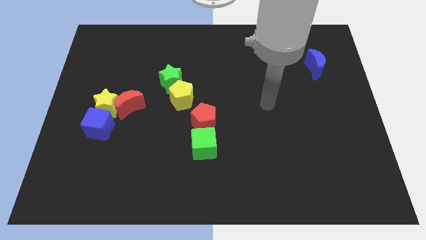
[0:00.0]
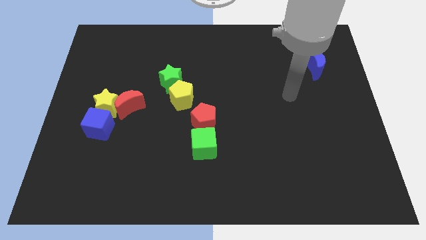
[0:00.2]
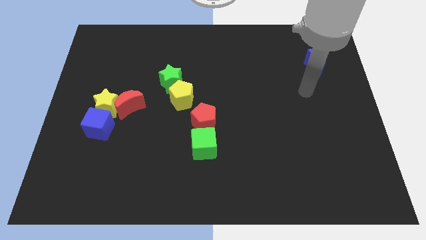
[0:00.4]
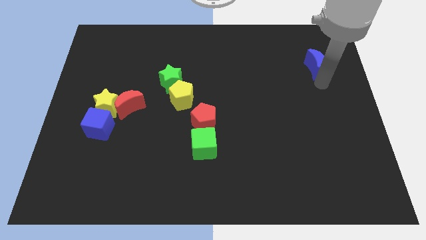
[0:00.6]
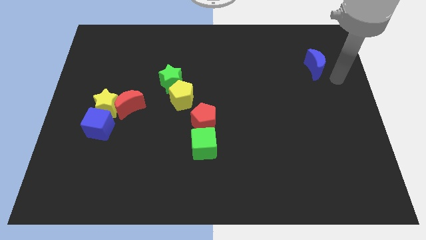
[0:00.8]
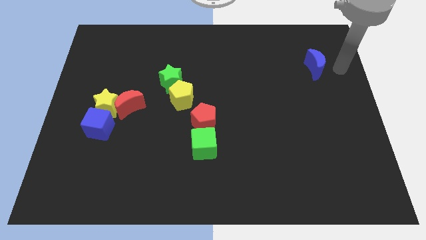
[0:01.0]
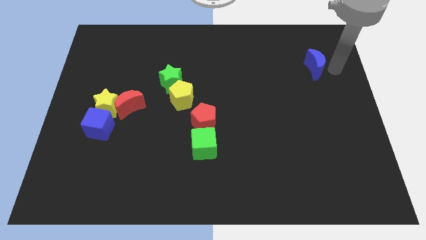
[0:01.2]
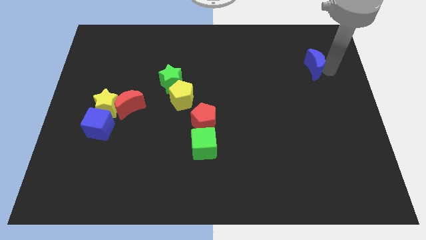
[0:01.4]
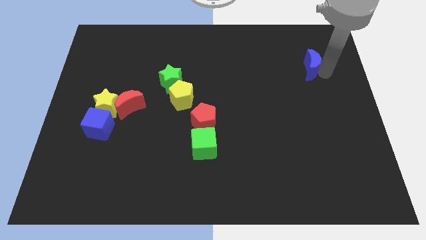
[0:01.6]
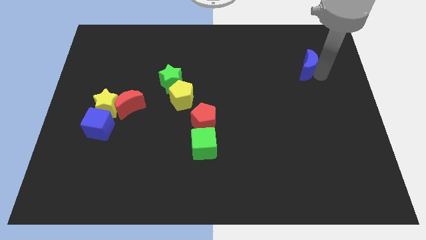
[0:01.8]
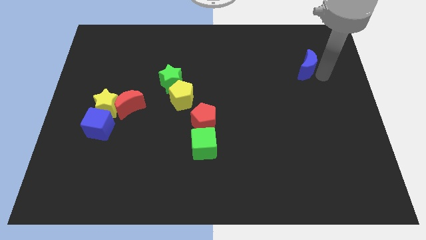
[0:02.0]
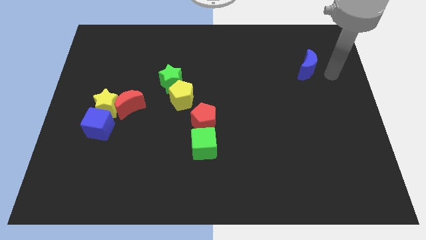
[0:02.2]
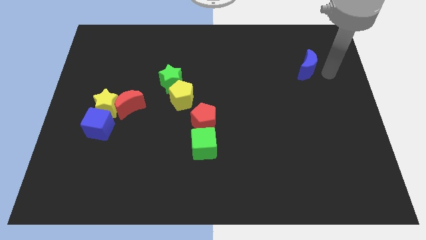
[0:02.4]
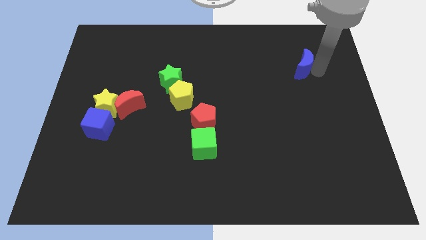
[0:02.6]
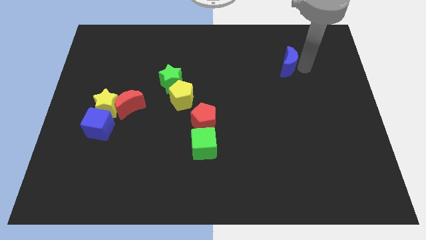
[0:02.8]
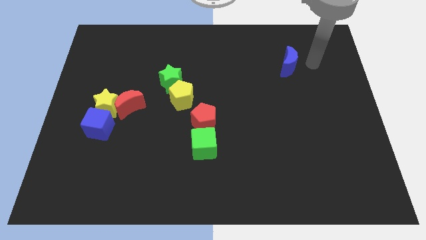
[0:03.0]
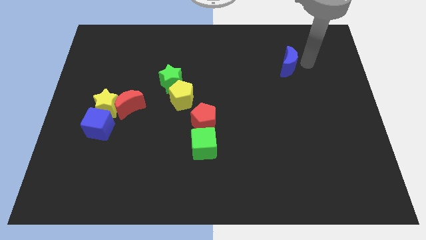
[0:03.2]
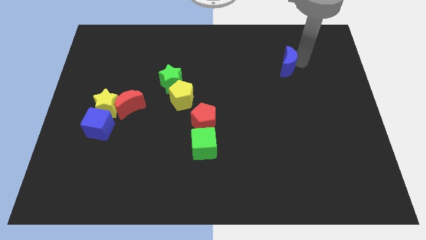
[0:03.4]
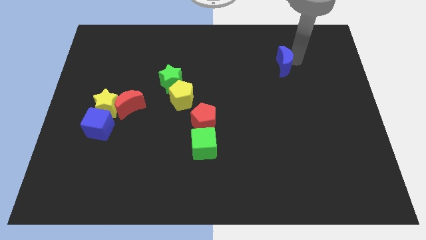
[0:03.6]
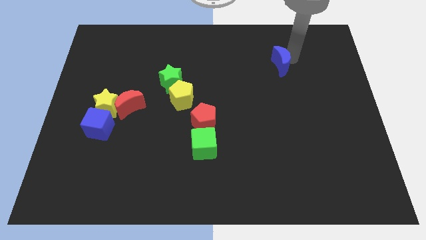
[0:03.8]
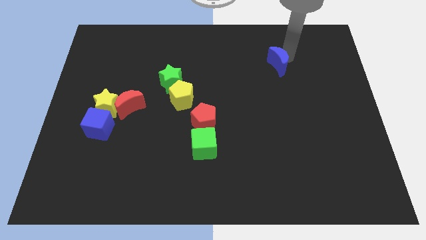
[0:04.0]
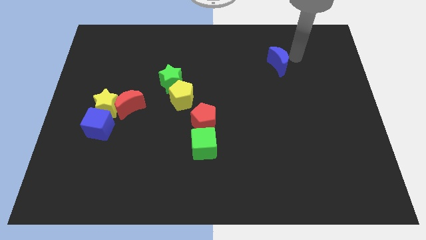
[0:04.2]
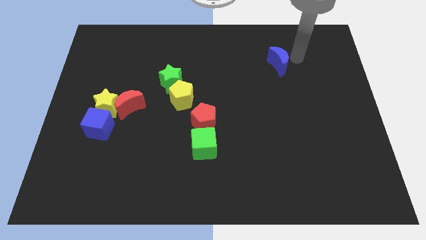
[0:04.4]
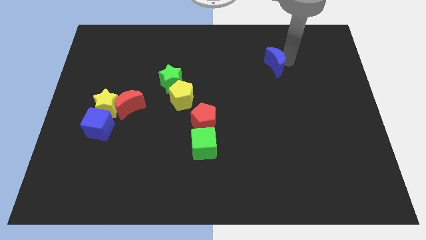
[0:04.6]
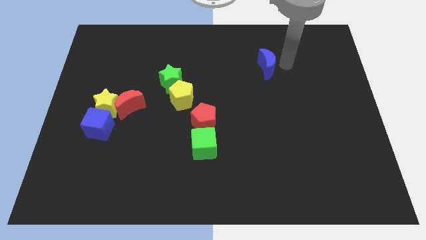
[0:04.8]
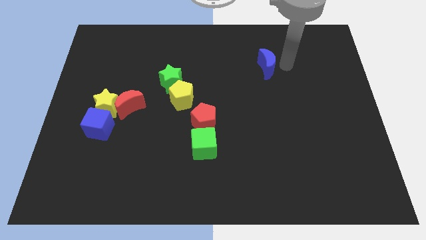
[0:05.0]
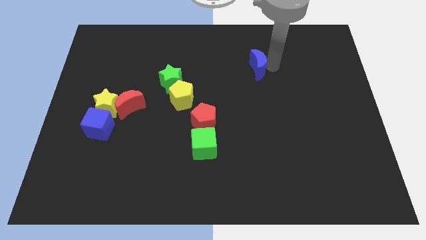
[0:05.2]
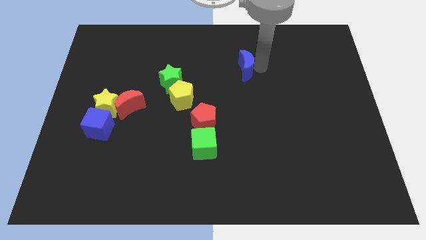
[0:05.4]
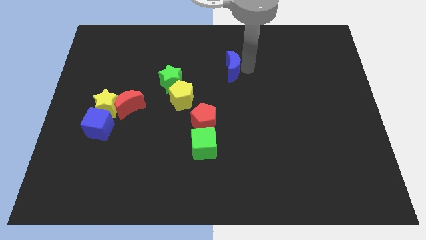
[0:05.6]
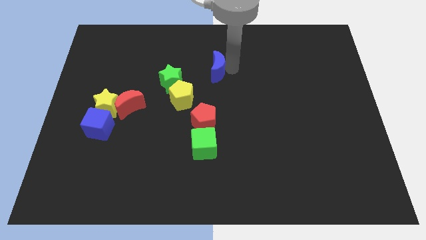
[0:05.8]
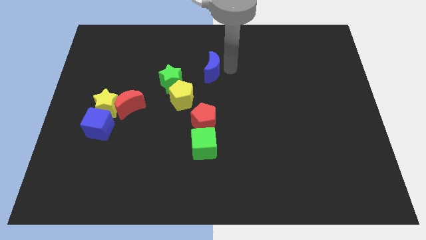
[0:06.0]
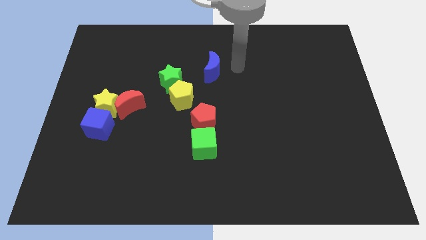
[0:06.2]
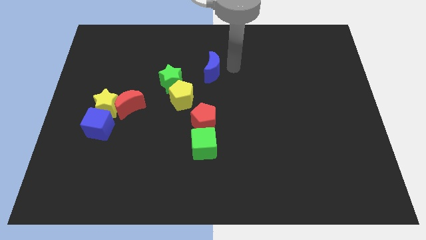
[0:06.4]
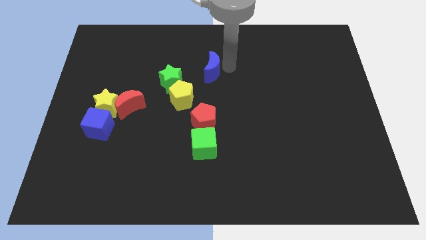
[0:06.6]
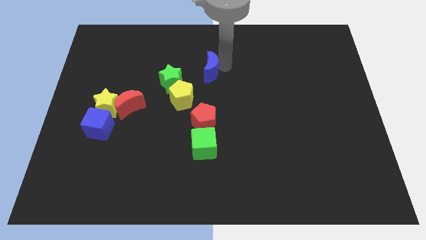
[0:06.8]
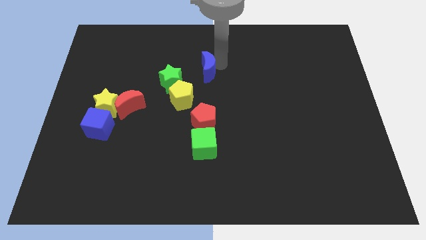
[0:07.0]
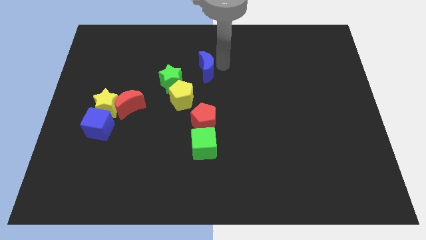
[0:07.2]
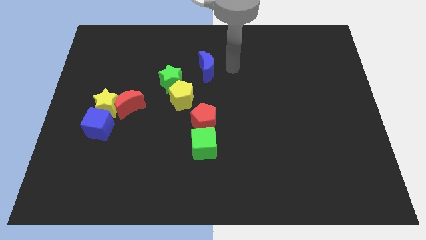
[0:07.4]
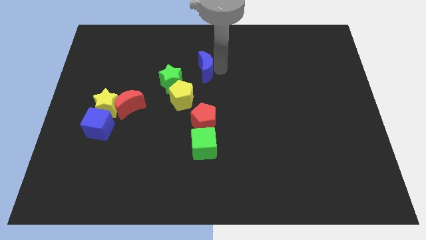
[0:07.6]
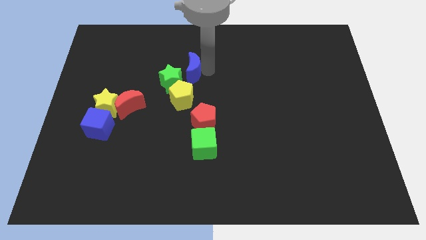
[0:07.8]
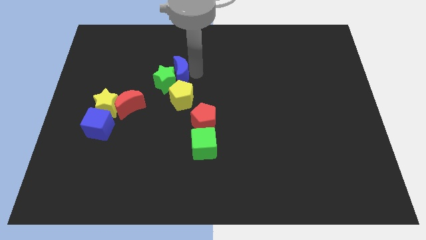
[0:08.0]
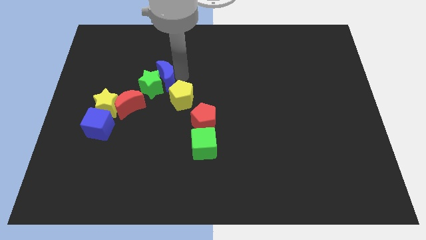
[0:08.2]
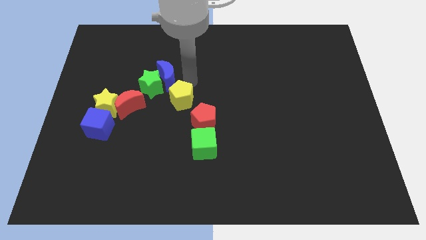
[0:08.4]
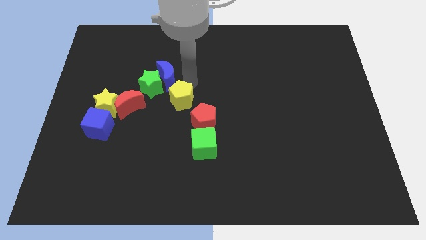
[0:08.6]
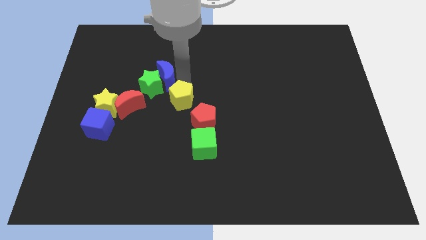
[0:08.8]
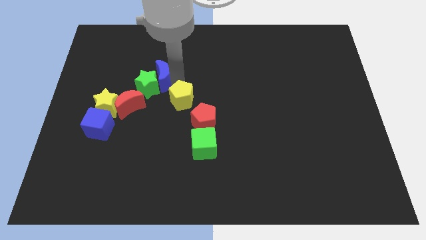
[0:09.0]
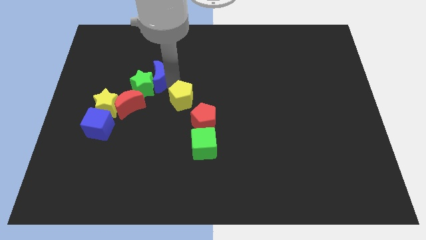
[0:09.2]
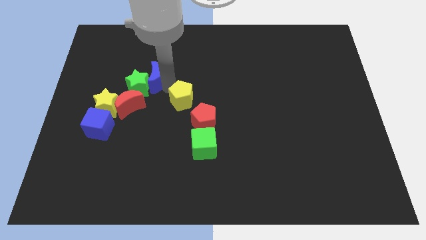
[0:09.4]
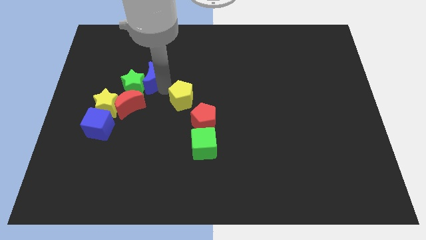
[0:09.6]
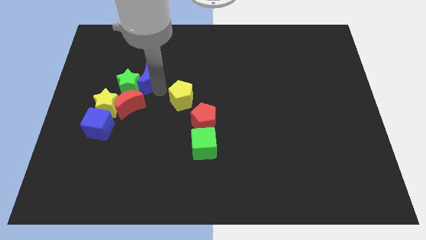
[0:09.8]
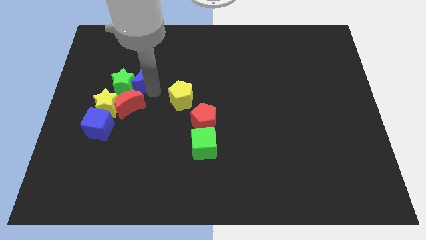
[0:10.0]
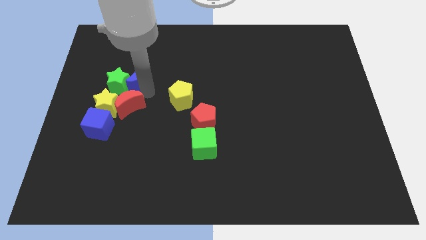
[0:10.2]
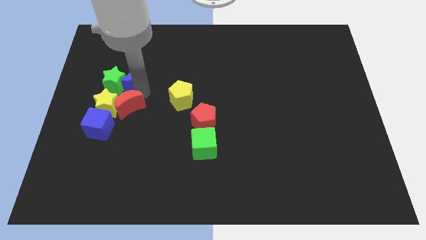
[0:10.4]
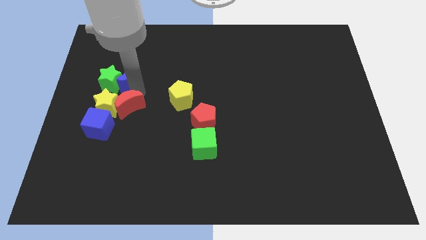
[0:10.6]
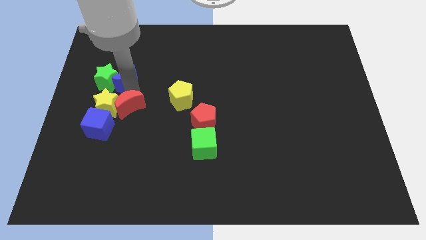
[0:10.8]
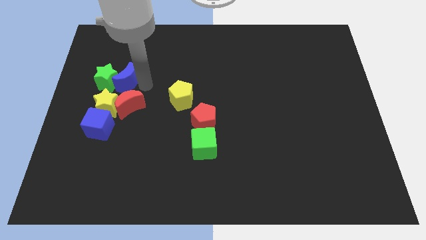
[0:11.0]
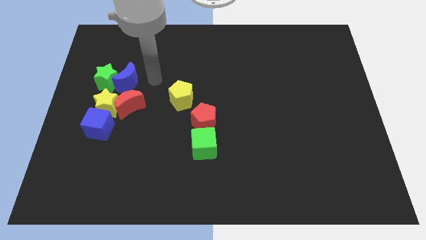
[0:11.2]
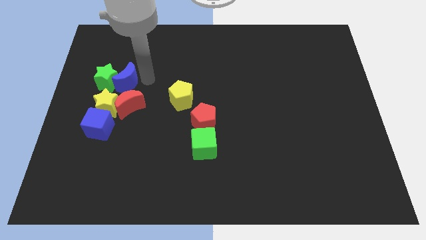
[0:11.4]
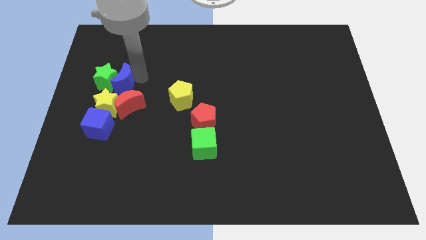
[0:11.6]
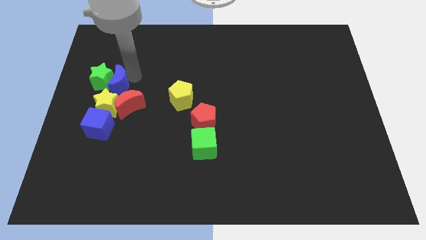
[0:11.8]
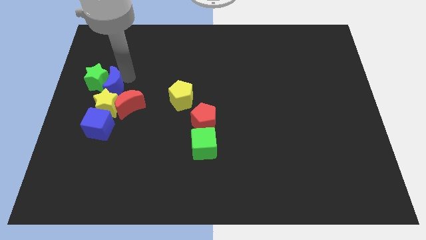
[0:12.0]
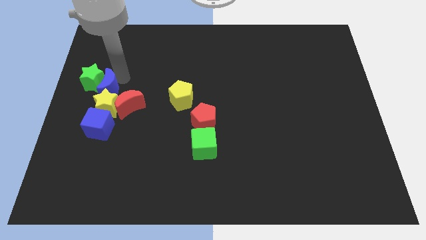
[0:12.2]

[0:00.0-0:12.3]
push the blue moon to the center left

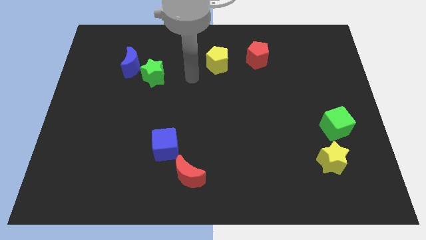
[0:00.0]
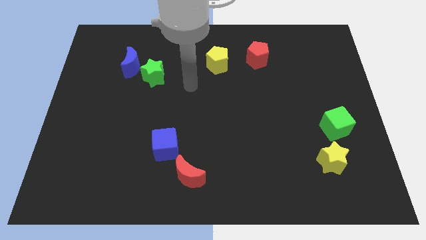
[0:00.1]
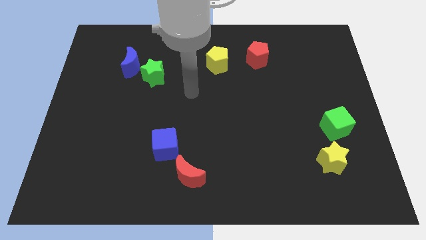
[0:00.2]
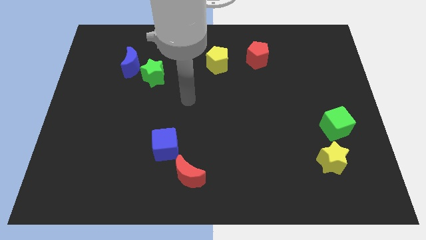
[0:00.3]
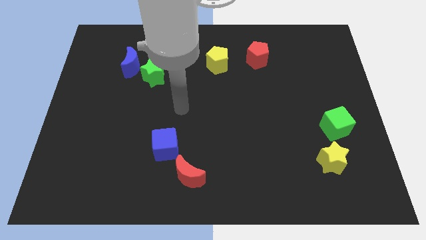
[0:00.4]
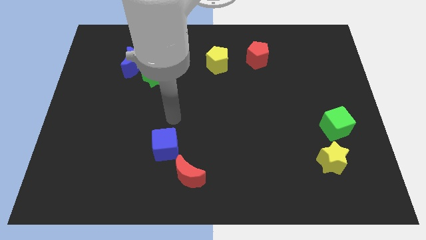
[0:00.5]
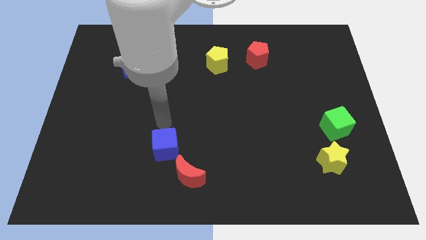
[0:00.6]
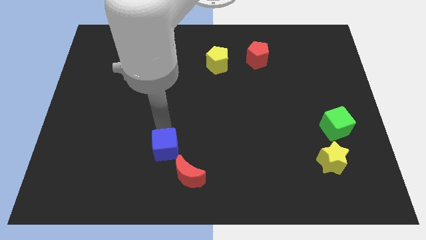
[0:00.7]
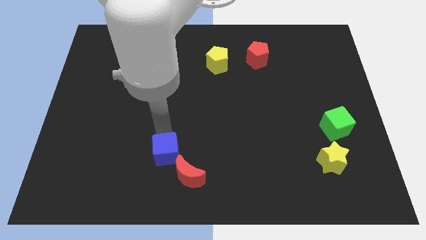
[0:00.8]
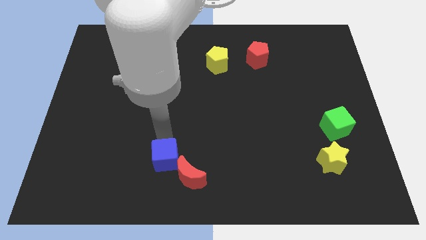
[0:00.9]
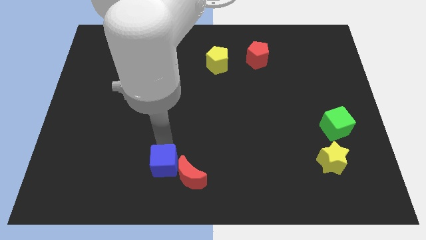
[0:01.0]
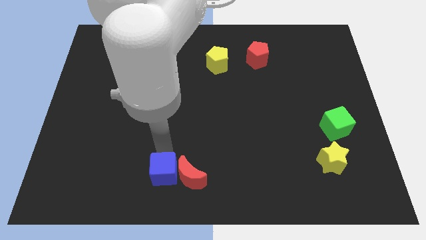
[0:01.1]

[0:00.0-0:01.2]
put the blue cube to the bottom side

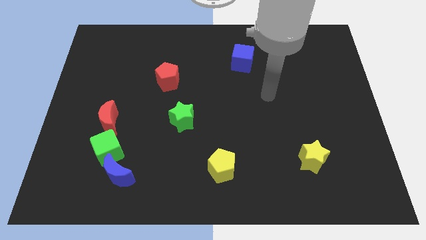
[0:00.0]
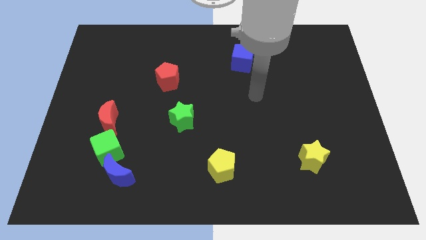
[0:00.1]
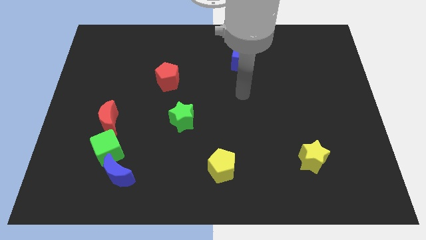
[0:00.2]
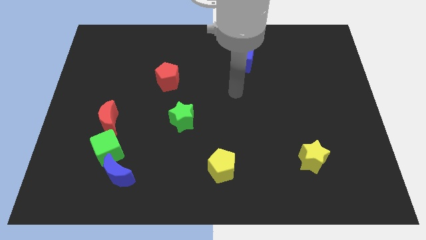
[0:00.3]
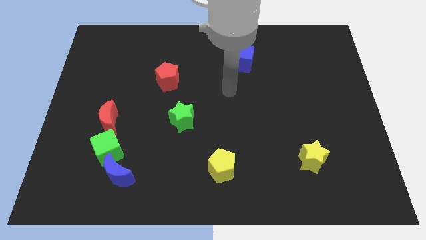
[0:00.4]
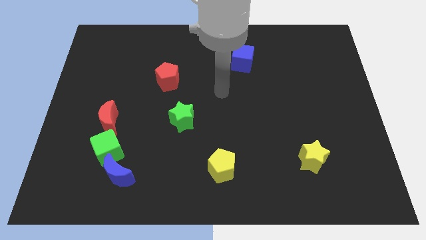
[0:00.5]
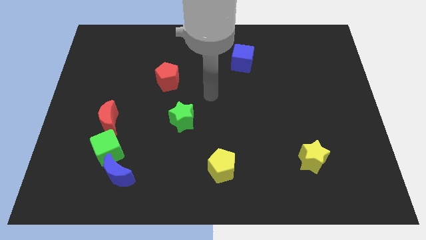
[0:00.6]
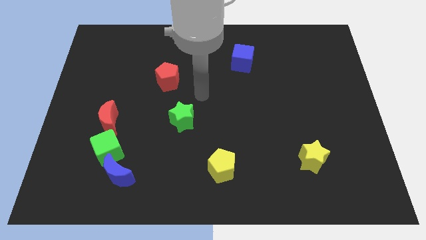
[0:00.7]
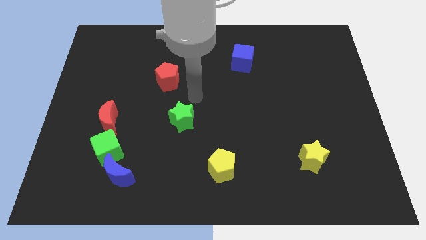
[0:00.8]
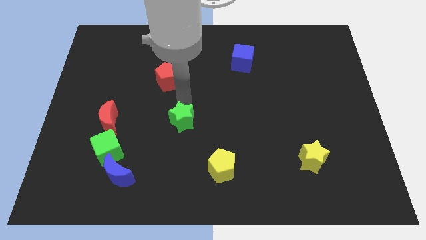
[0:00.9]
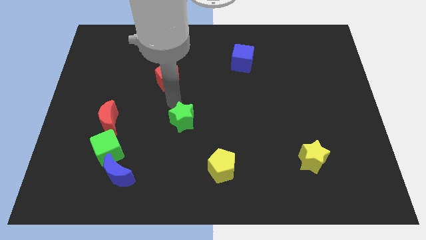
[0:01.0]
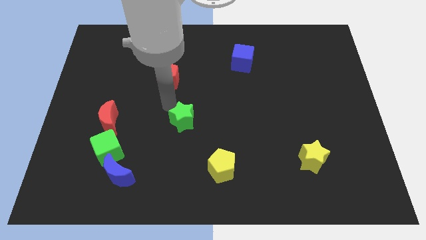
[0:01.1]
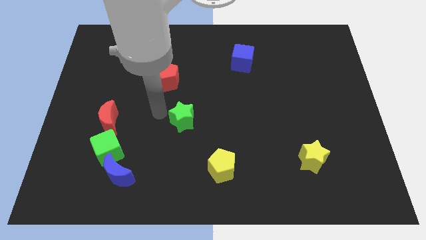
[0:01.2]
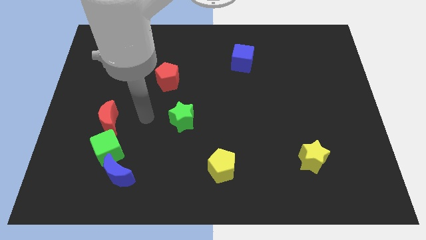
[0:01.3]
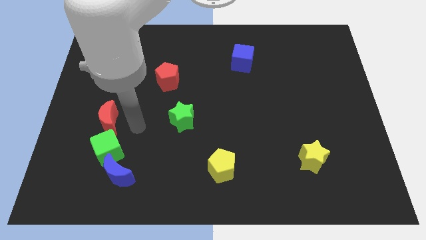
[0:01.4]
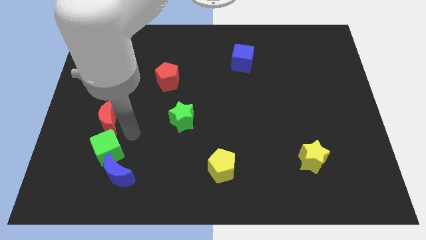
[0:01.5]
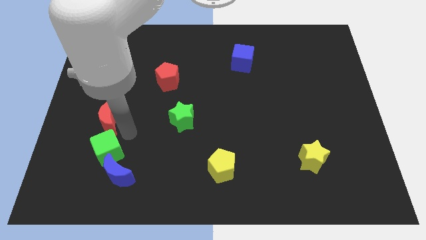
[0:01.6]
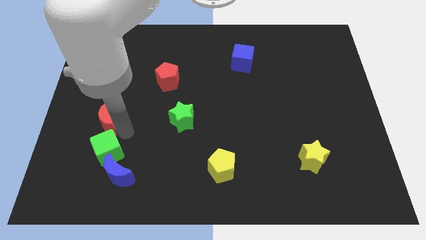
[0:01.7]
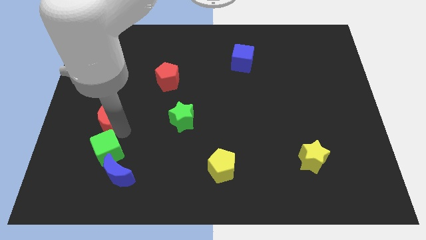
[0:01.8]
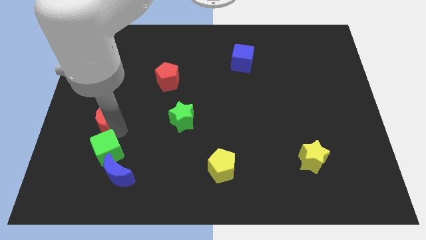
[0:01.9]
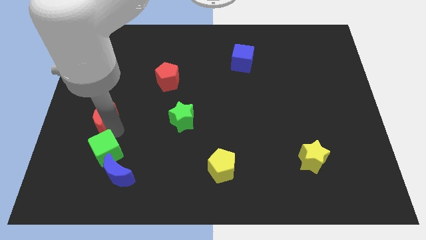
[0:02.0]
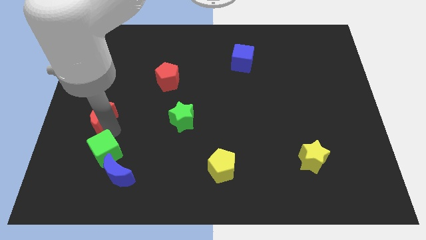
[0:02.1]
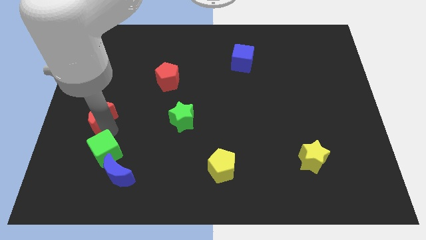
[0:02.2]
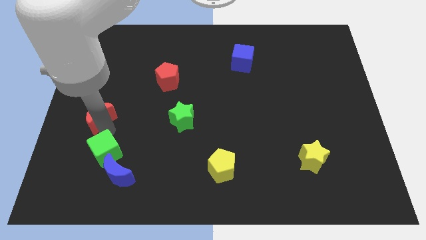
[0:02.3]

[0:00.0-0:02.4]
push the red moon to the left side
